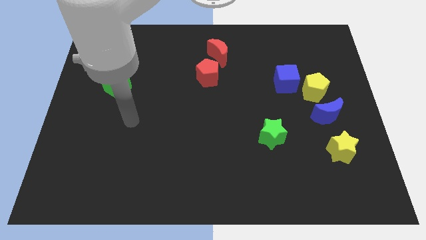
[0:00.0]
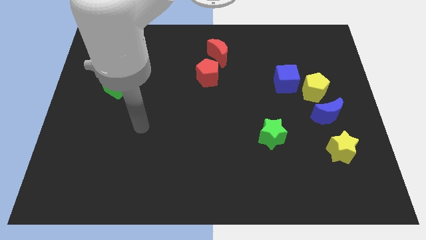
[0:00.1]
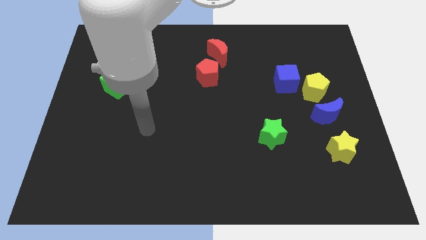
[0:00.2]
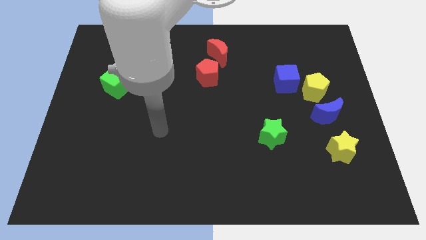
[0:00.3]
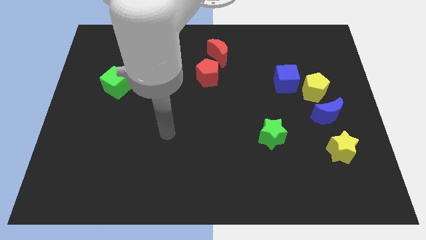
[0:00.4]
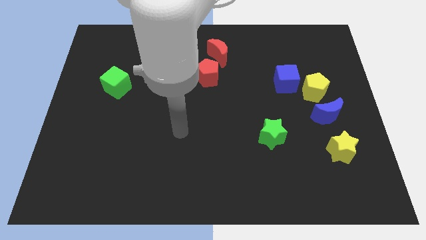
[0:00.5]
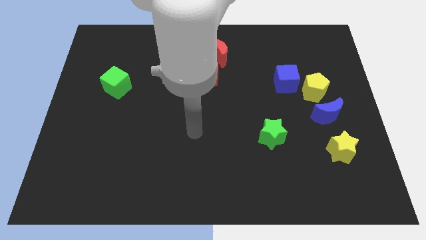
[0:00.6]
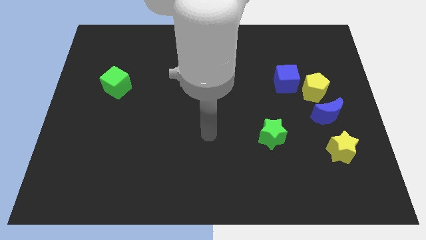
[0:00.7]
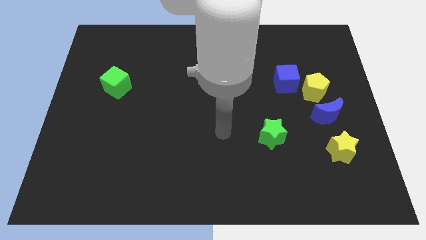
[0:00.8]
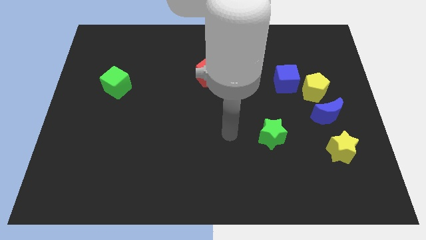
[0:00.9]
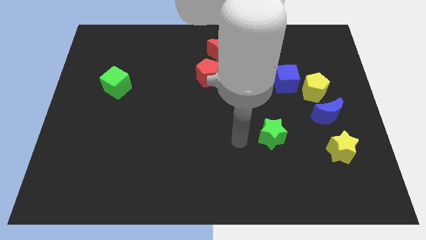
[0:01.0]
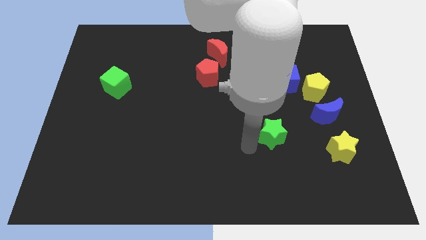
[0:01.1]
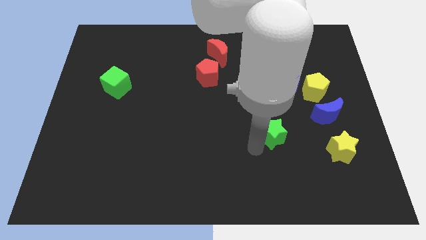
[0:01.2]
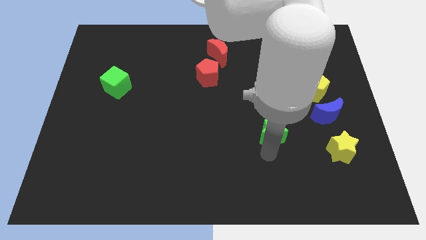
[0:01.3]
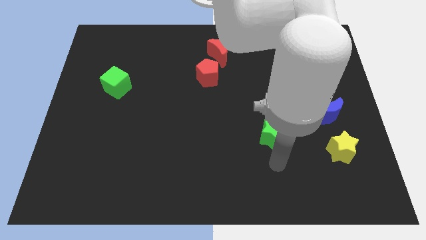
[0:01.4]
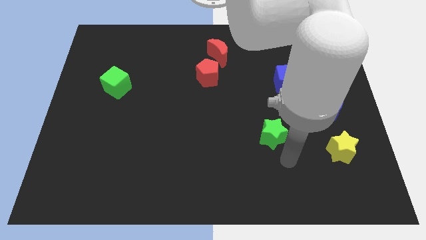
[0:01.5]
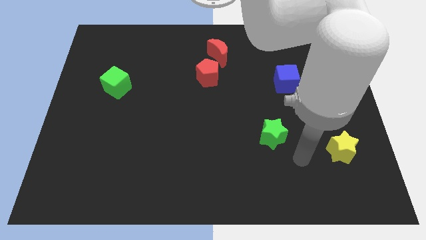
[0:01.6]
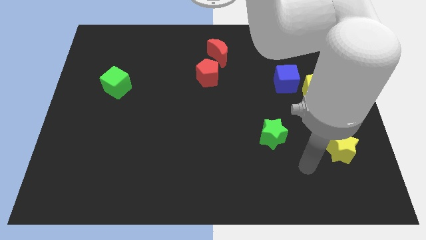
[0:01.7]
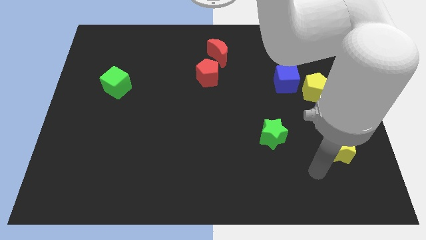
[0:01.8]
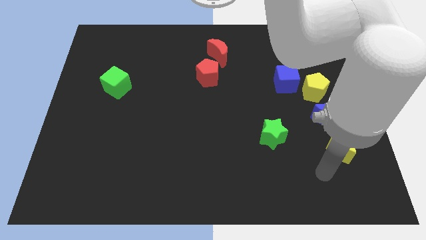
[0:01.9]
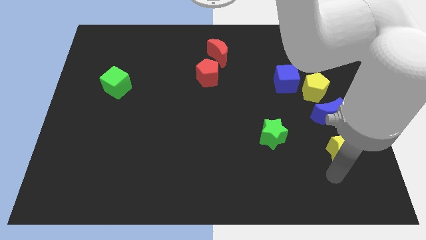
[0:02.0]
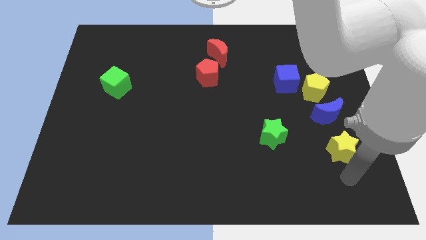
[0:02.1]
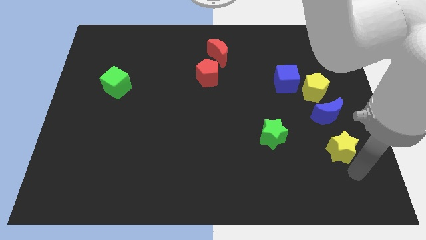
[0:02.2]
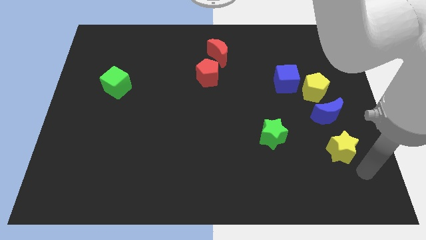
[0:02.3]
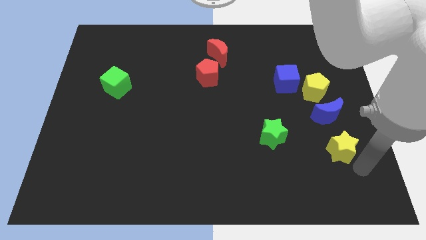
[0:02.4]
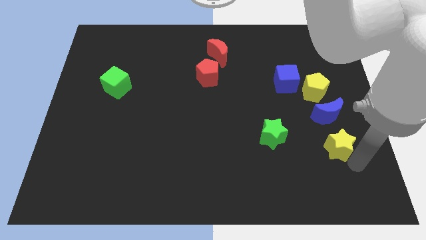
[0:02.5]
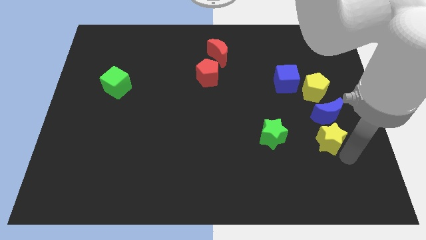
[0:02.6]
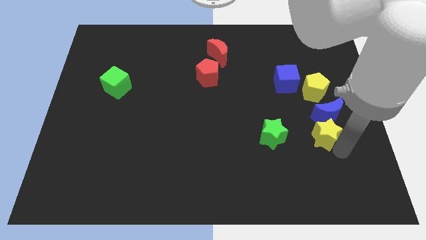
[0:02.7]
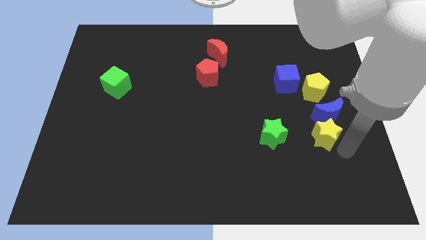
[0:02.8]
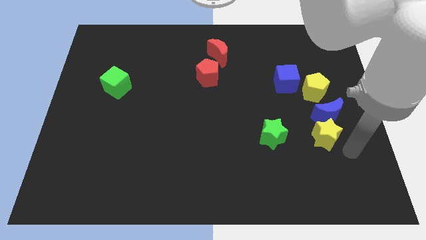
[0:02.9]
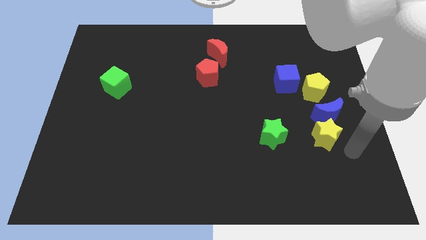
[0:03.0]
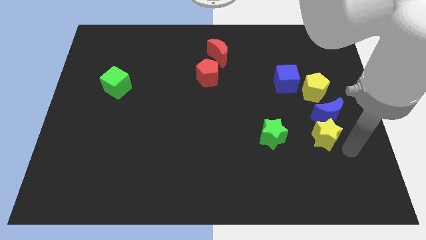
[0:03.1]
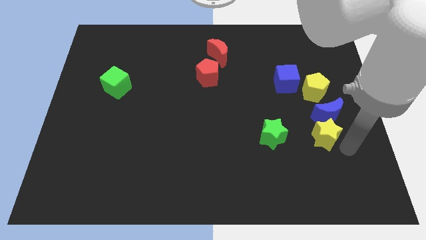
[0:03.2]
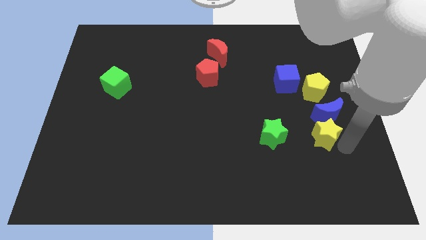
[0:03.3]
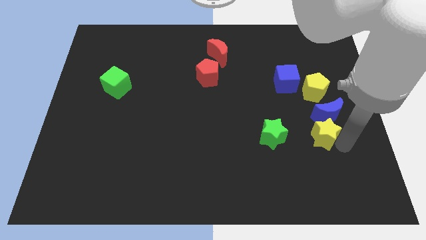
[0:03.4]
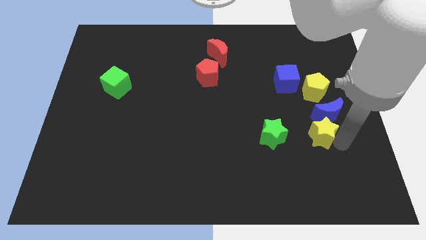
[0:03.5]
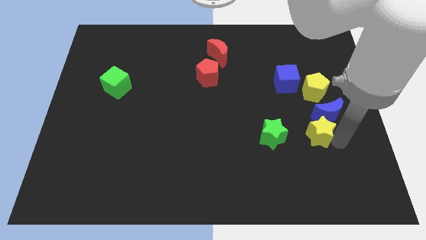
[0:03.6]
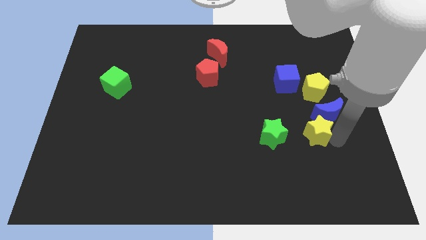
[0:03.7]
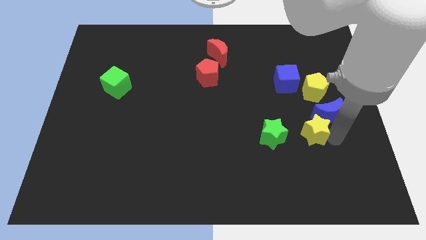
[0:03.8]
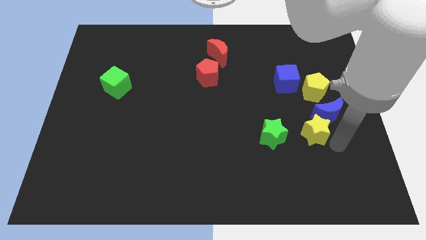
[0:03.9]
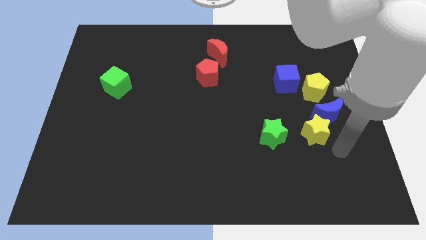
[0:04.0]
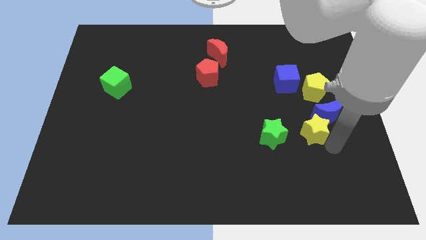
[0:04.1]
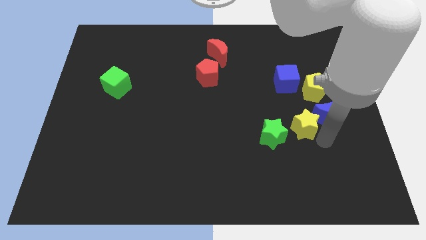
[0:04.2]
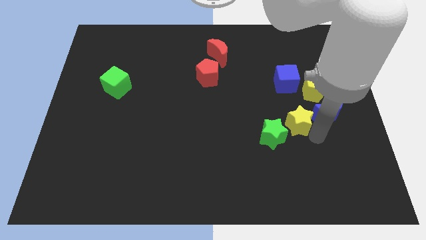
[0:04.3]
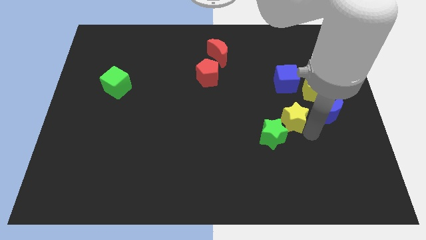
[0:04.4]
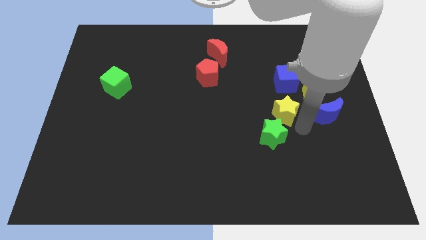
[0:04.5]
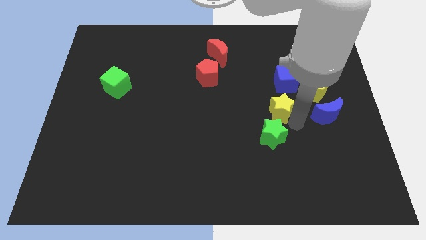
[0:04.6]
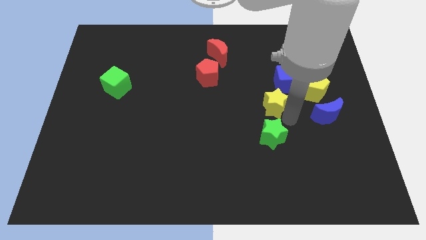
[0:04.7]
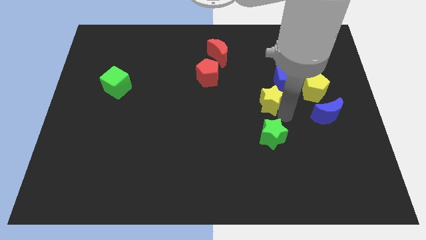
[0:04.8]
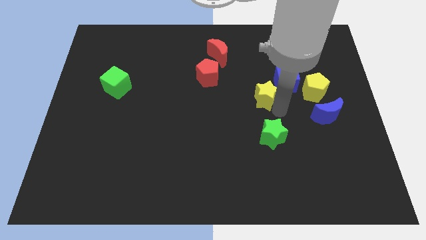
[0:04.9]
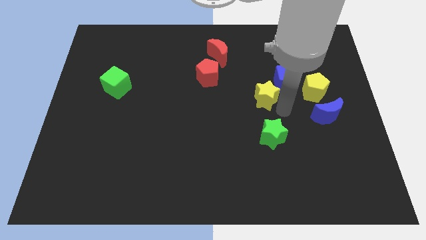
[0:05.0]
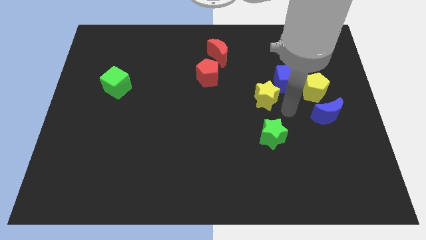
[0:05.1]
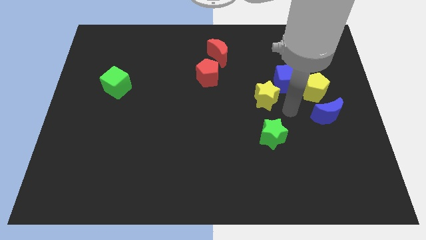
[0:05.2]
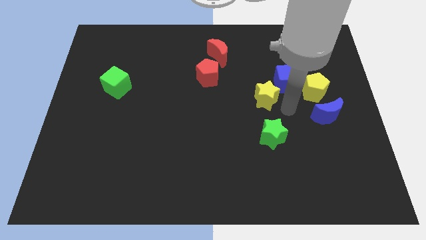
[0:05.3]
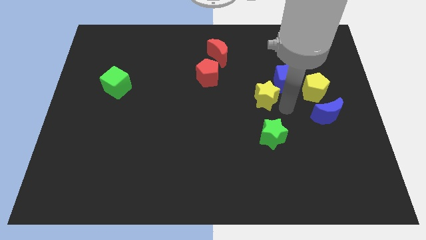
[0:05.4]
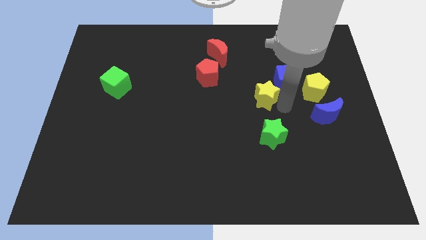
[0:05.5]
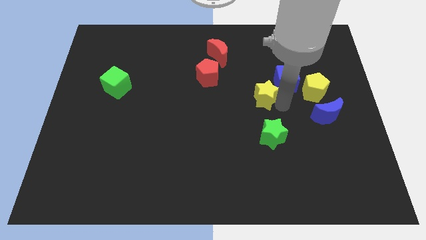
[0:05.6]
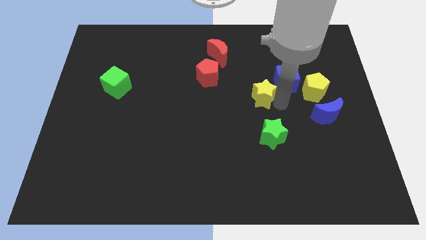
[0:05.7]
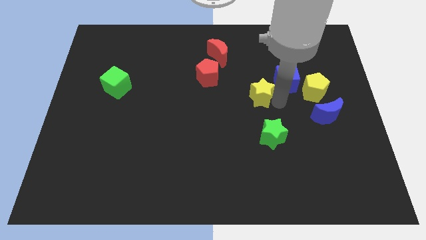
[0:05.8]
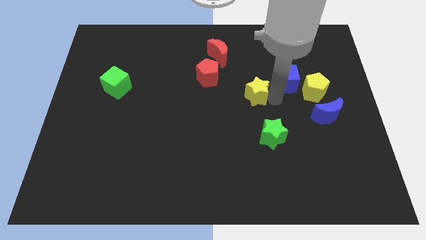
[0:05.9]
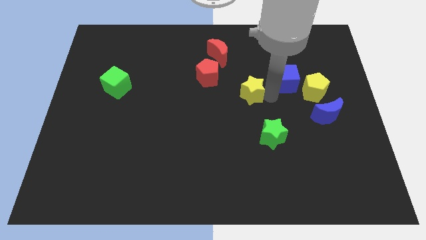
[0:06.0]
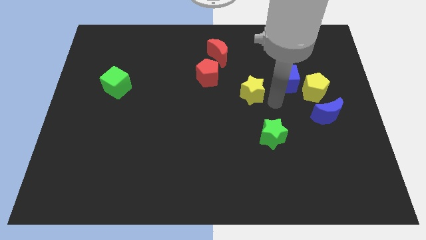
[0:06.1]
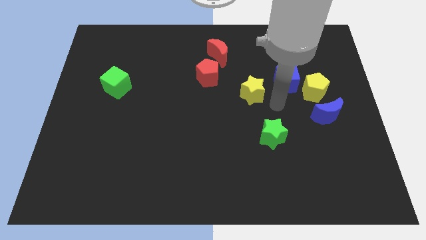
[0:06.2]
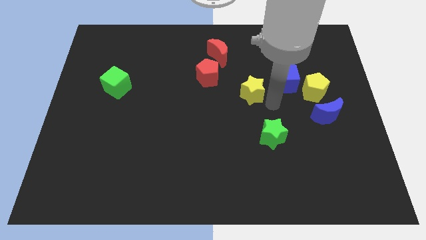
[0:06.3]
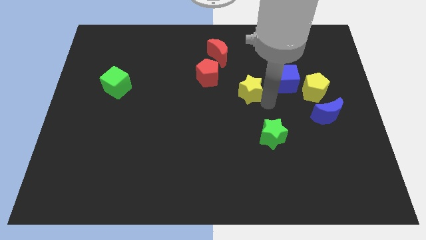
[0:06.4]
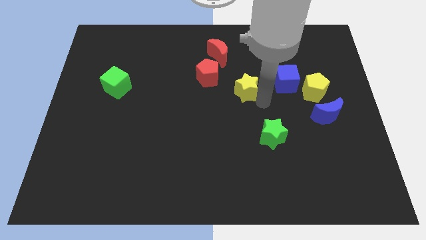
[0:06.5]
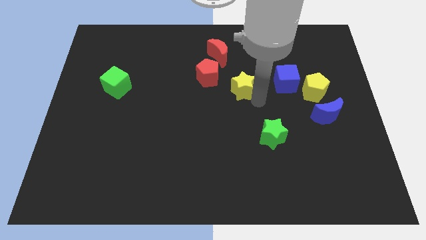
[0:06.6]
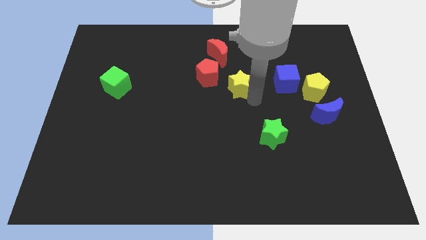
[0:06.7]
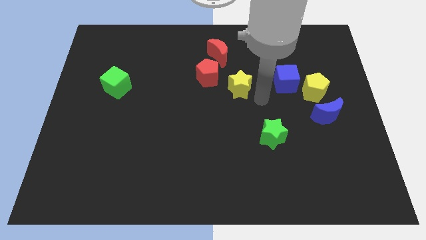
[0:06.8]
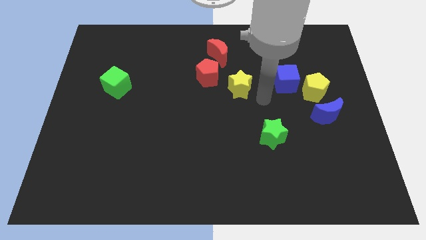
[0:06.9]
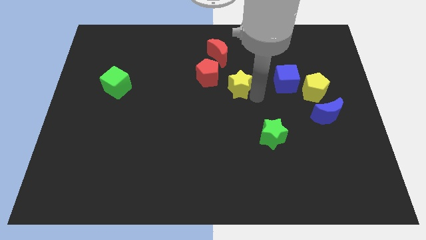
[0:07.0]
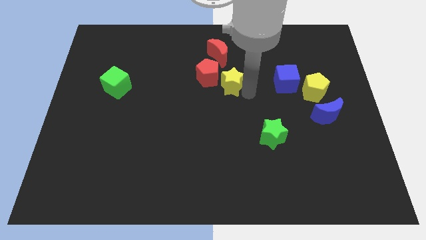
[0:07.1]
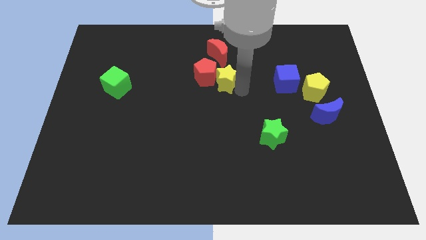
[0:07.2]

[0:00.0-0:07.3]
push the yellow star close to the red pentagon

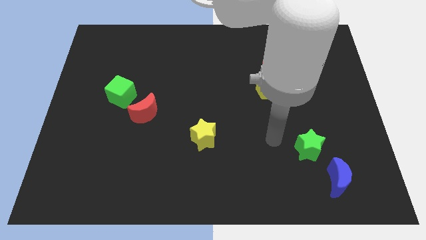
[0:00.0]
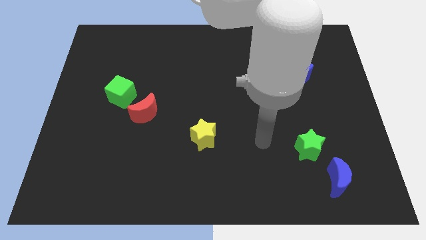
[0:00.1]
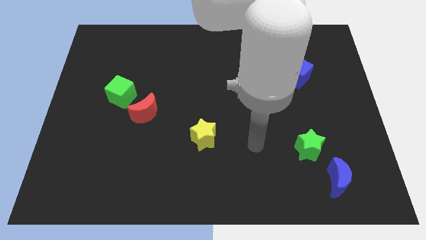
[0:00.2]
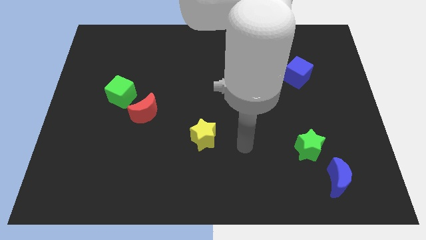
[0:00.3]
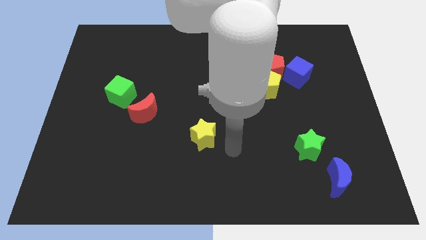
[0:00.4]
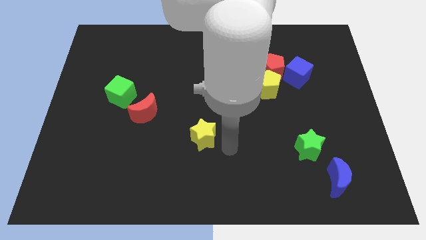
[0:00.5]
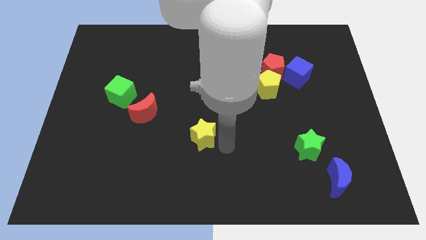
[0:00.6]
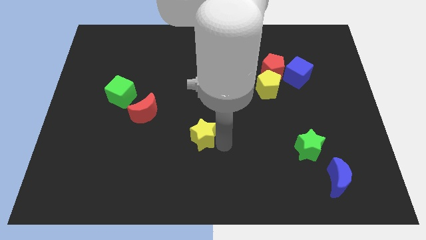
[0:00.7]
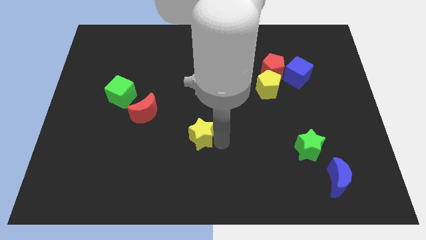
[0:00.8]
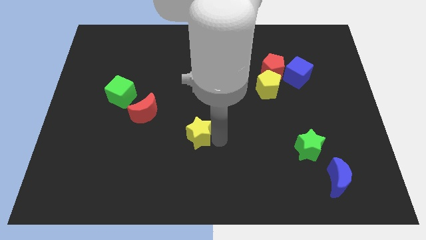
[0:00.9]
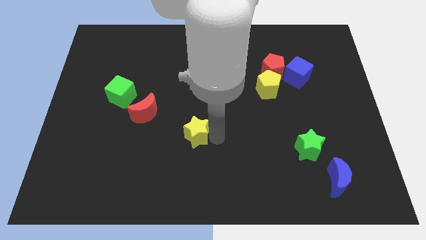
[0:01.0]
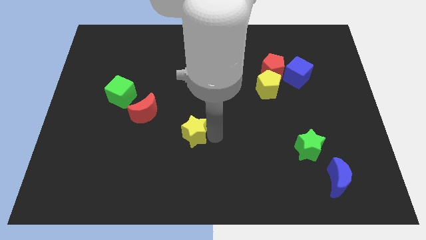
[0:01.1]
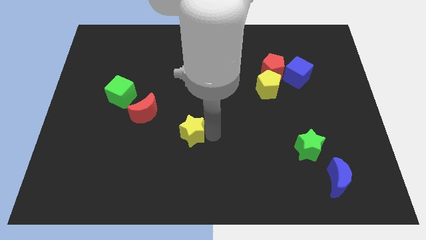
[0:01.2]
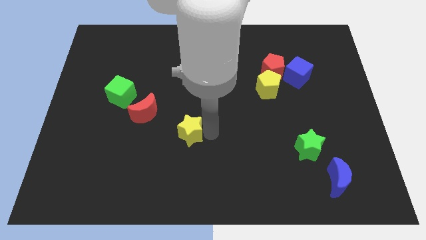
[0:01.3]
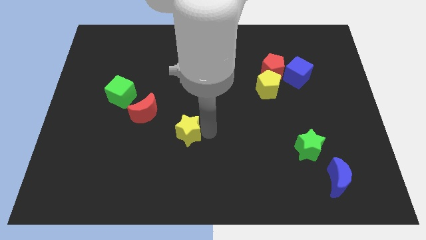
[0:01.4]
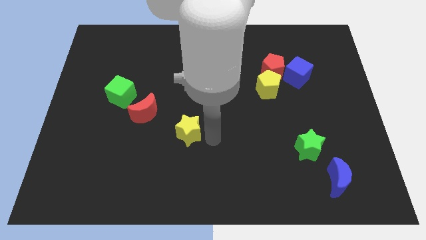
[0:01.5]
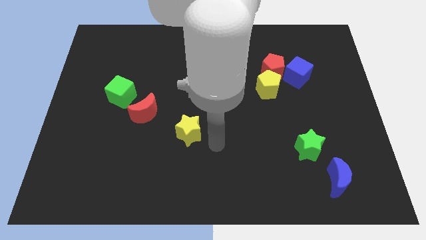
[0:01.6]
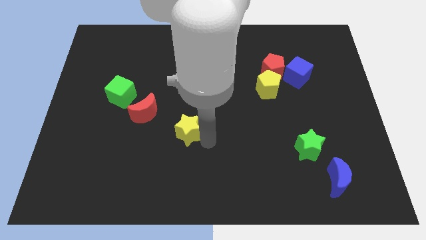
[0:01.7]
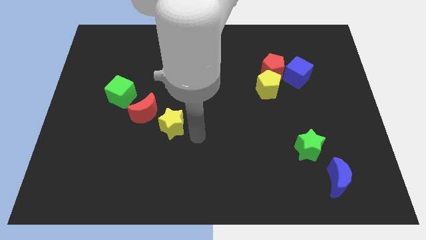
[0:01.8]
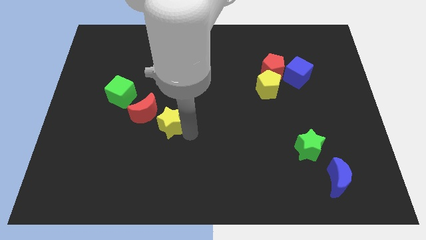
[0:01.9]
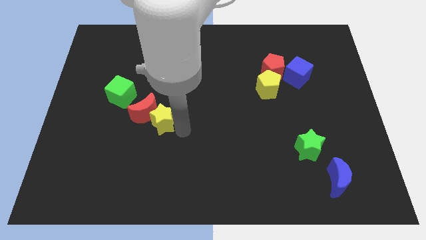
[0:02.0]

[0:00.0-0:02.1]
put the yellow star next to the red moon
